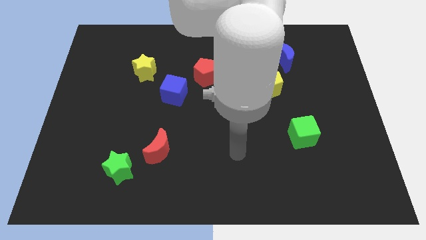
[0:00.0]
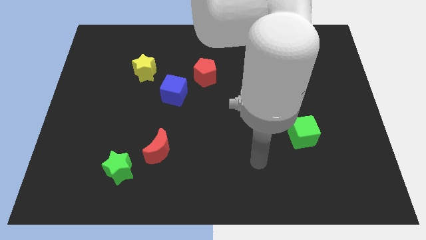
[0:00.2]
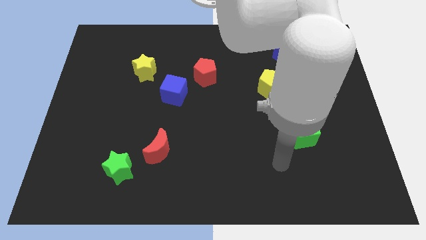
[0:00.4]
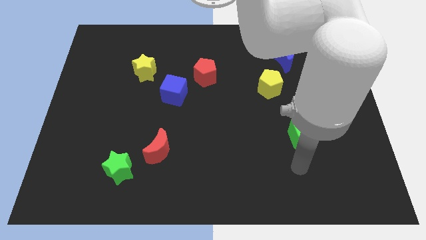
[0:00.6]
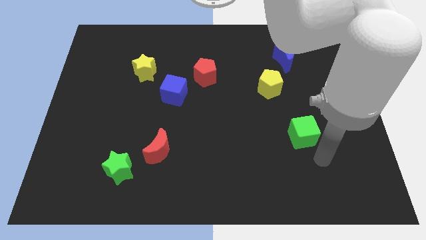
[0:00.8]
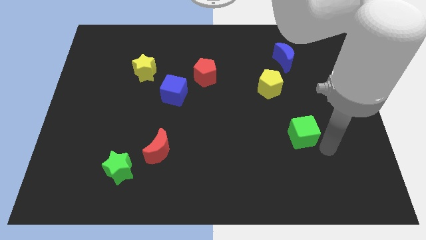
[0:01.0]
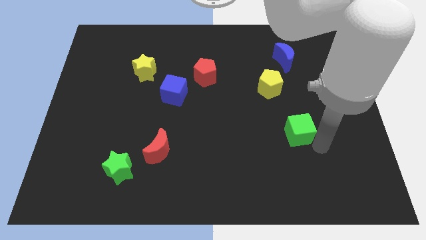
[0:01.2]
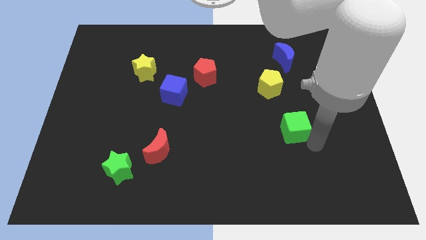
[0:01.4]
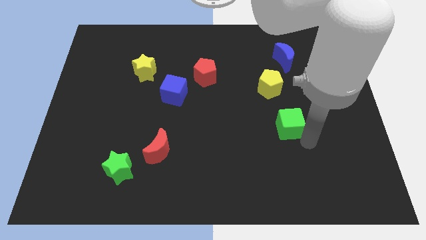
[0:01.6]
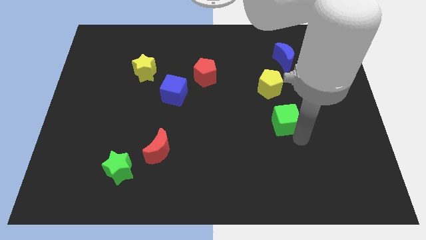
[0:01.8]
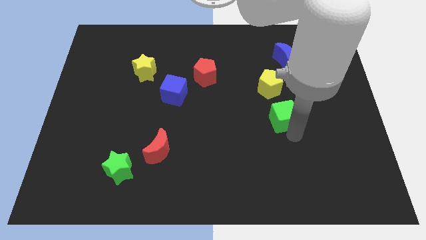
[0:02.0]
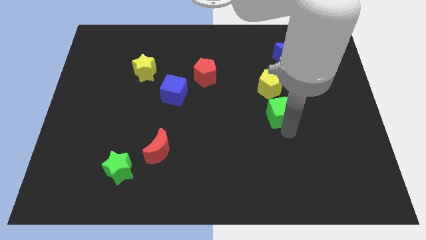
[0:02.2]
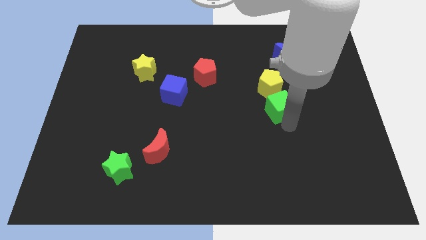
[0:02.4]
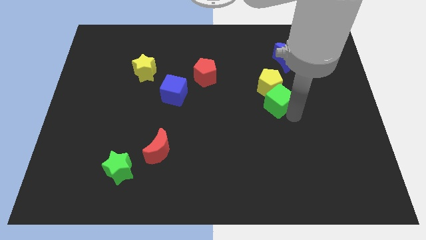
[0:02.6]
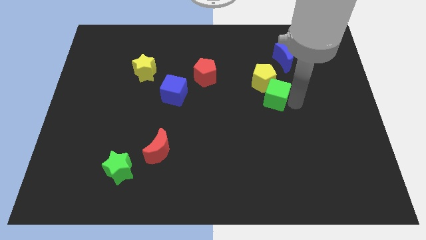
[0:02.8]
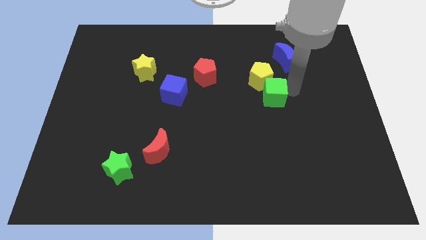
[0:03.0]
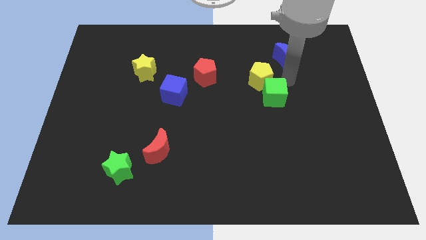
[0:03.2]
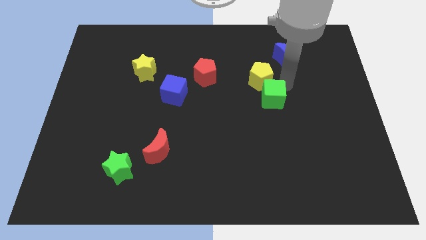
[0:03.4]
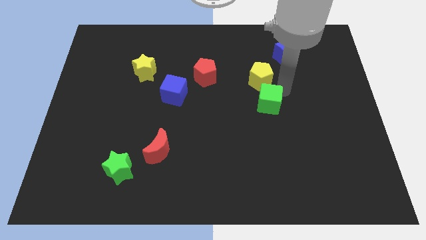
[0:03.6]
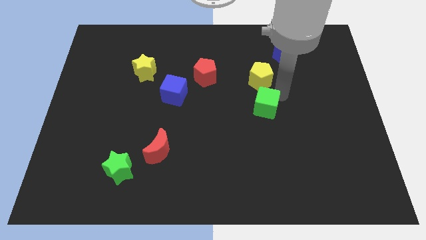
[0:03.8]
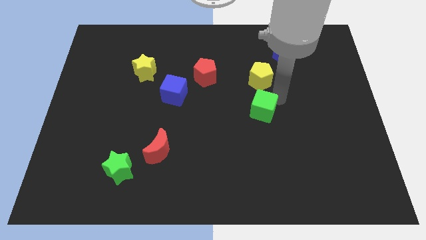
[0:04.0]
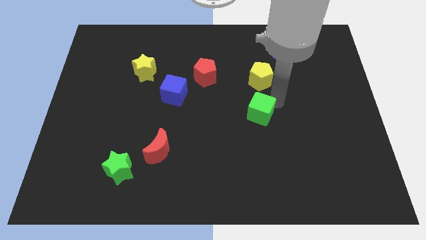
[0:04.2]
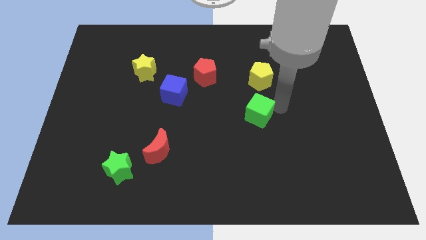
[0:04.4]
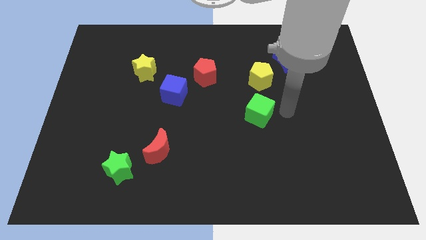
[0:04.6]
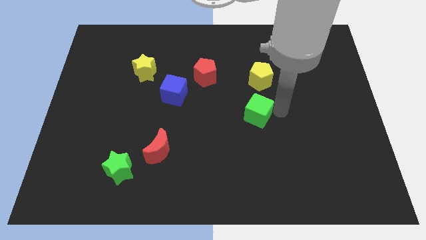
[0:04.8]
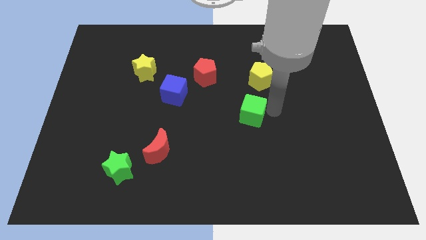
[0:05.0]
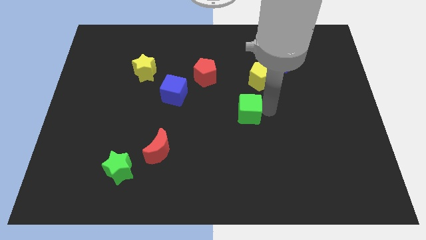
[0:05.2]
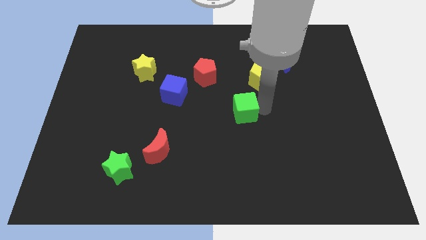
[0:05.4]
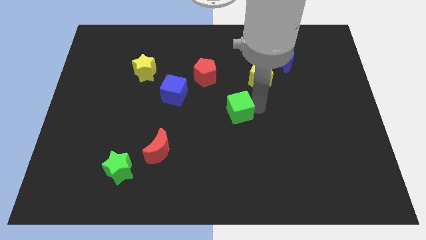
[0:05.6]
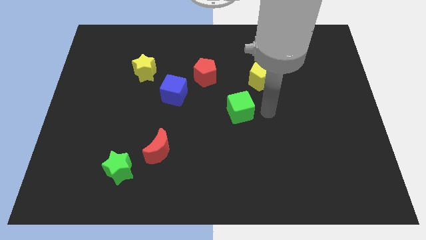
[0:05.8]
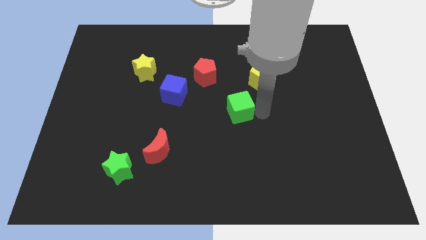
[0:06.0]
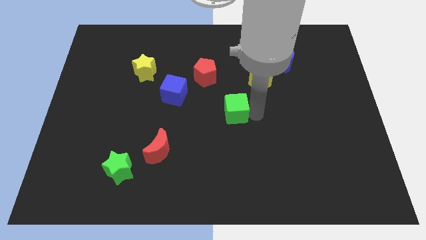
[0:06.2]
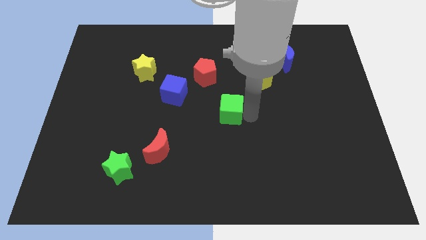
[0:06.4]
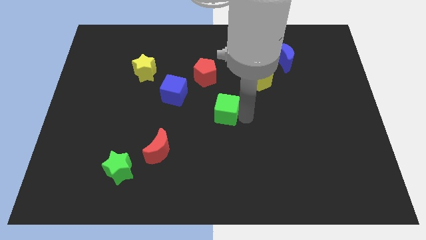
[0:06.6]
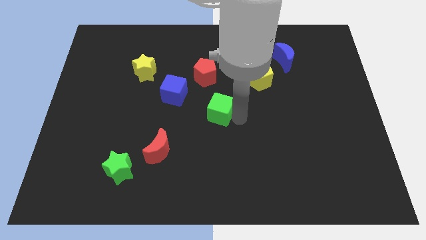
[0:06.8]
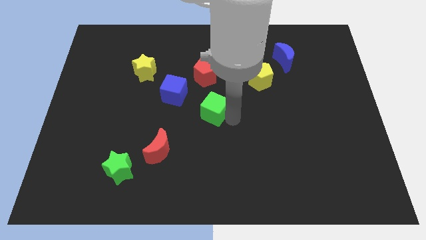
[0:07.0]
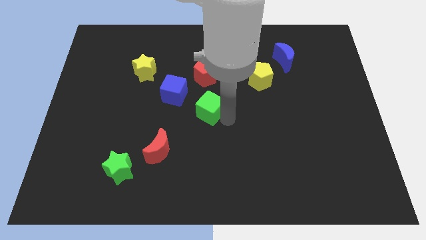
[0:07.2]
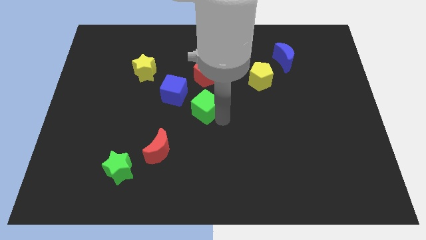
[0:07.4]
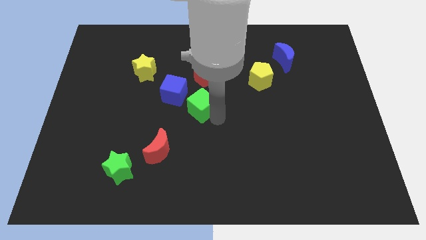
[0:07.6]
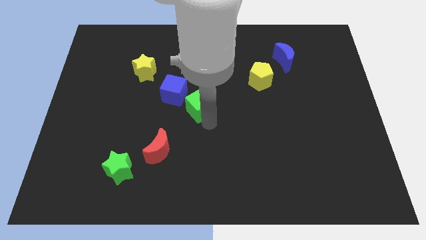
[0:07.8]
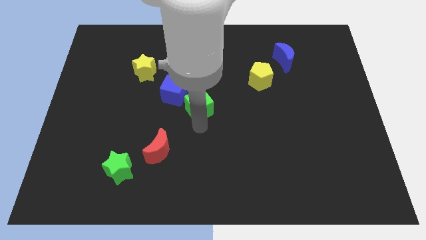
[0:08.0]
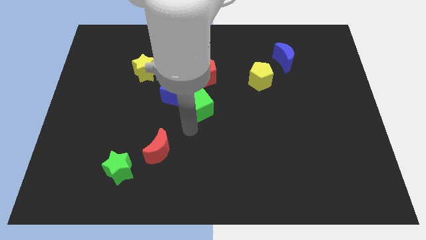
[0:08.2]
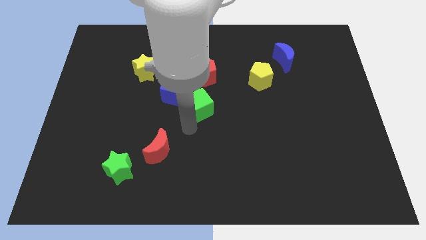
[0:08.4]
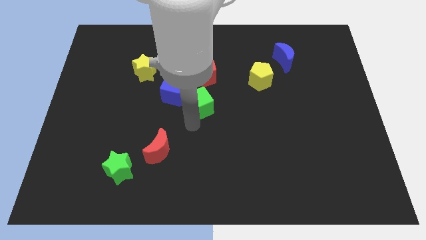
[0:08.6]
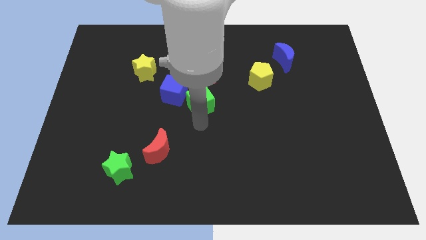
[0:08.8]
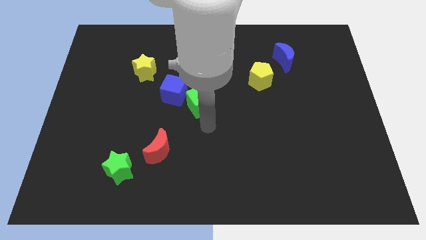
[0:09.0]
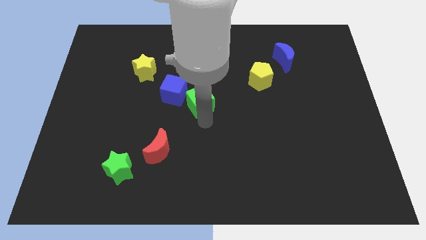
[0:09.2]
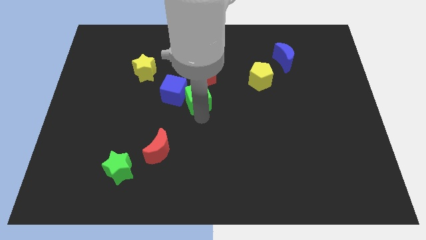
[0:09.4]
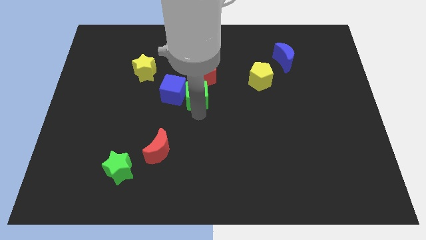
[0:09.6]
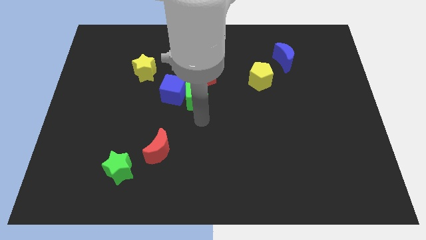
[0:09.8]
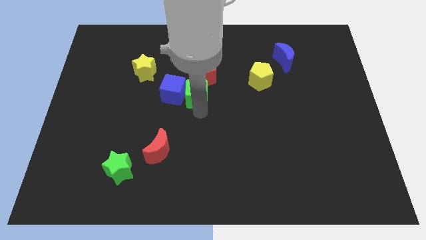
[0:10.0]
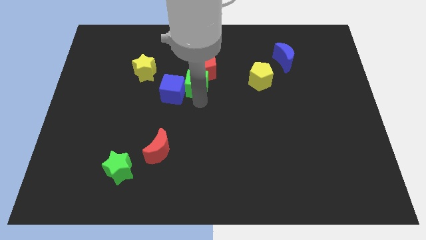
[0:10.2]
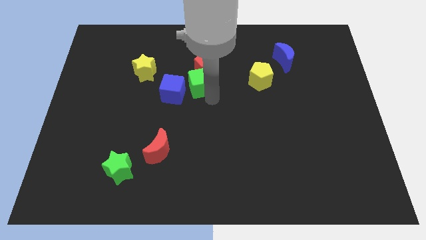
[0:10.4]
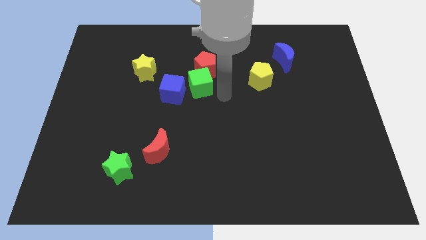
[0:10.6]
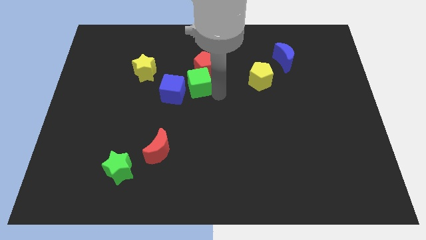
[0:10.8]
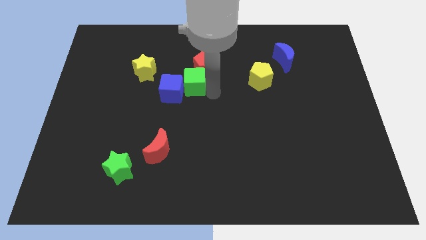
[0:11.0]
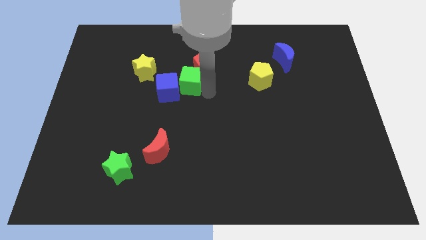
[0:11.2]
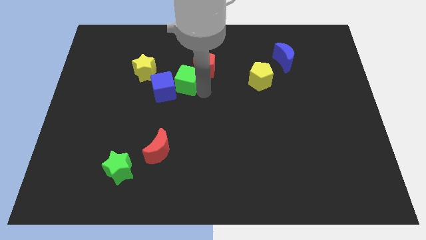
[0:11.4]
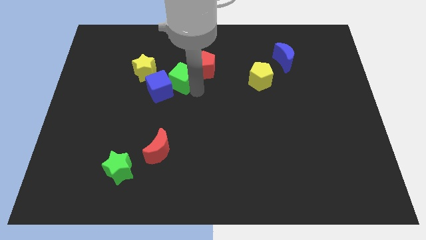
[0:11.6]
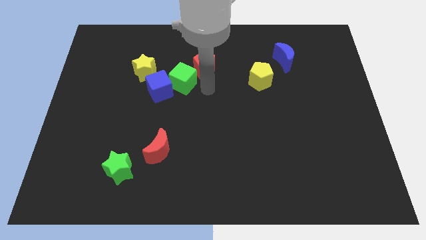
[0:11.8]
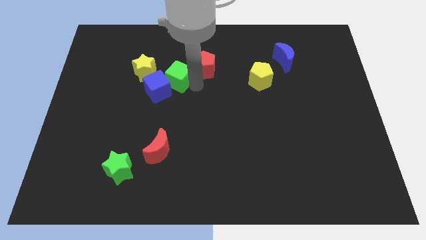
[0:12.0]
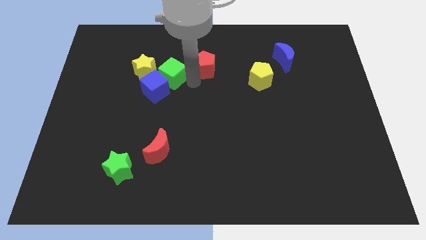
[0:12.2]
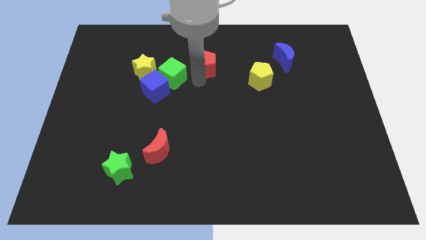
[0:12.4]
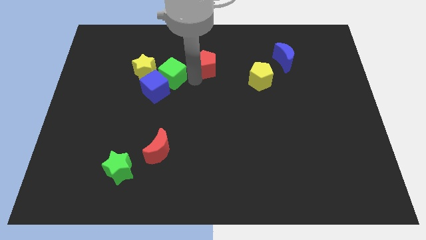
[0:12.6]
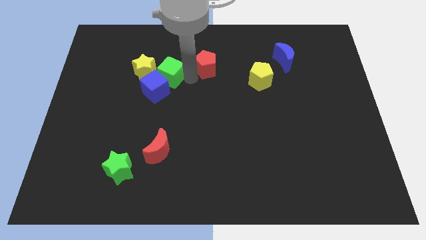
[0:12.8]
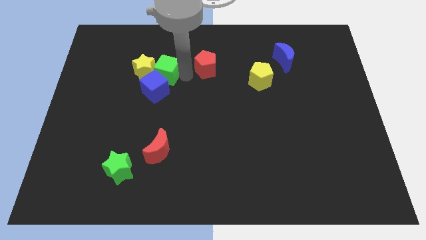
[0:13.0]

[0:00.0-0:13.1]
slide the green cube close to the yellow star

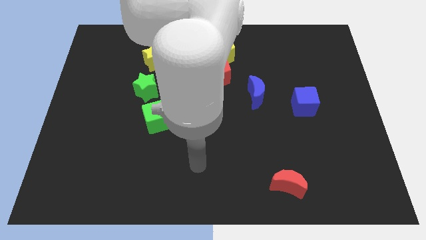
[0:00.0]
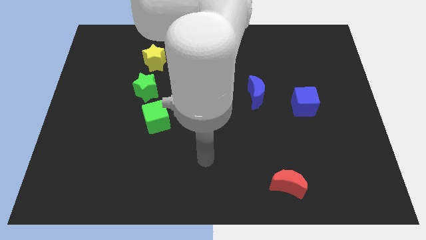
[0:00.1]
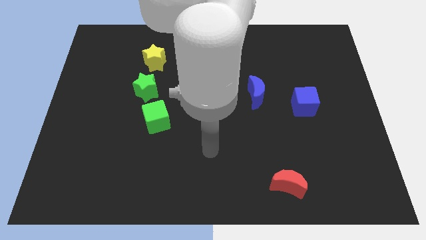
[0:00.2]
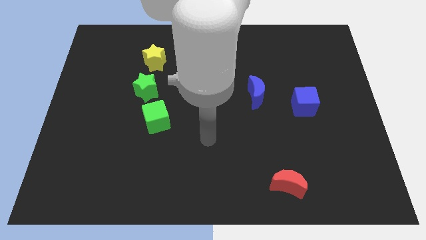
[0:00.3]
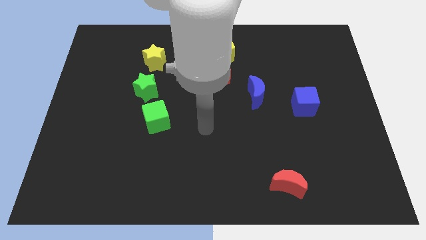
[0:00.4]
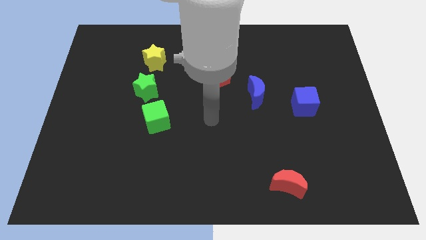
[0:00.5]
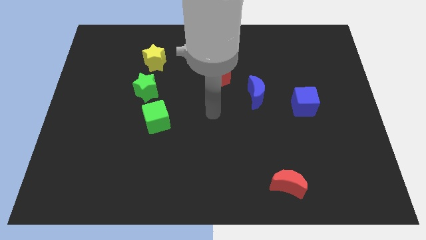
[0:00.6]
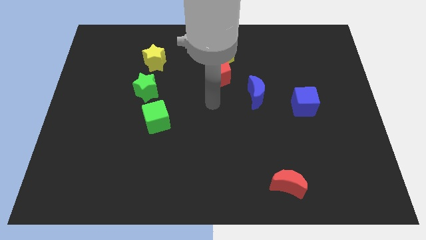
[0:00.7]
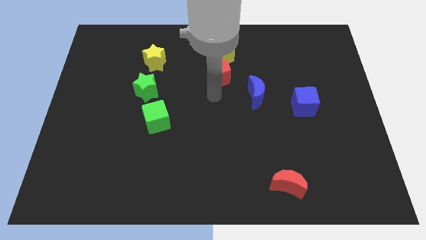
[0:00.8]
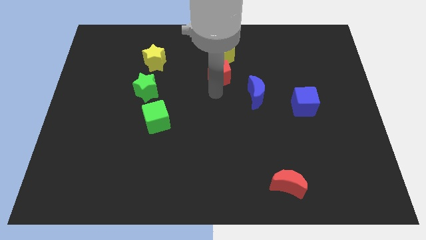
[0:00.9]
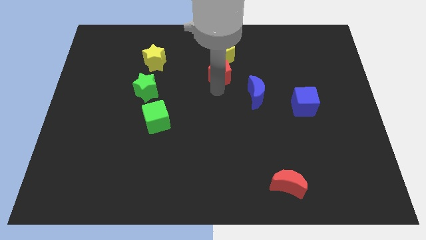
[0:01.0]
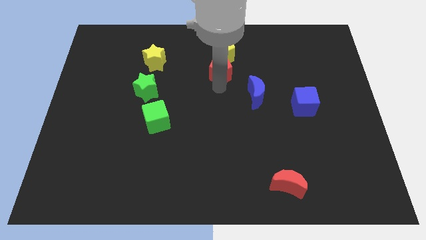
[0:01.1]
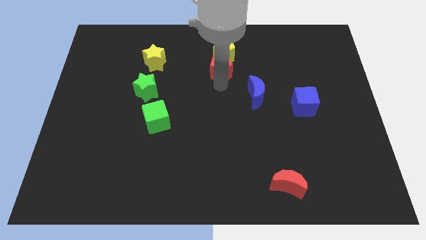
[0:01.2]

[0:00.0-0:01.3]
slide the red pentagon close to the yellow pentagon
